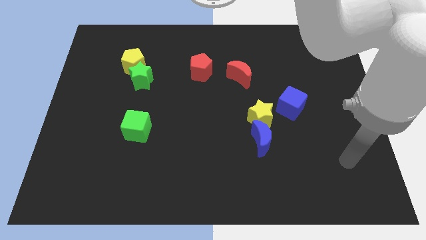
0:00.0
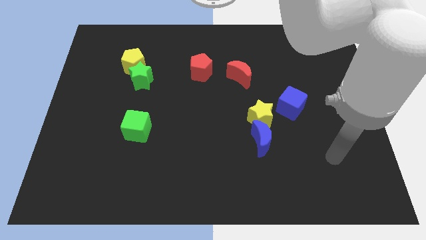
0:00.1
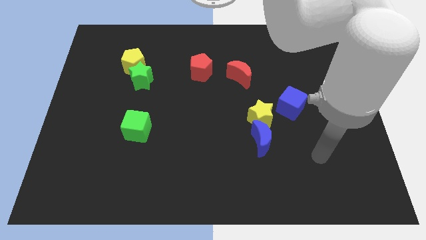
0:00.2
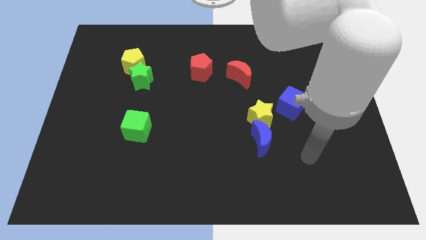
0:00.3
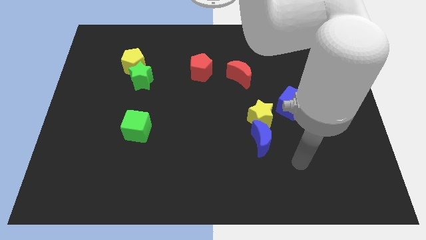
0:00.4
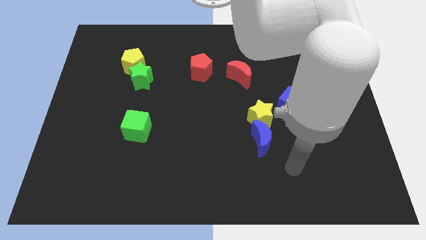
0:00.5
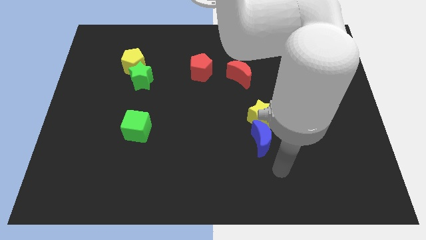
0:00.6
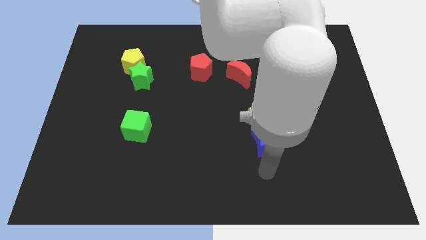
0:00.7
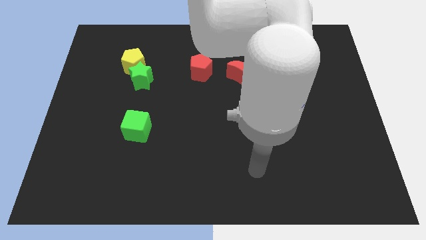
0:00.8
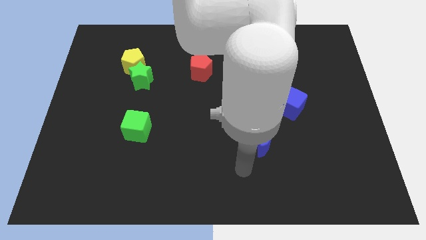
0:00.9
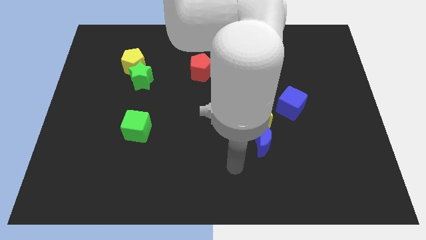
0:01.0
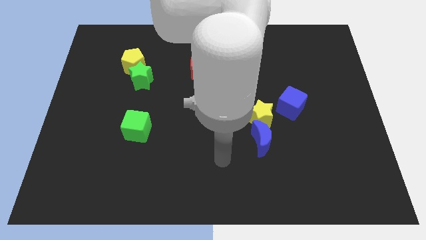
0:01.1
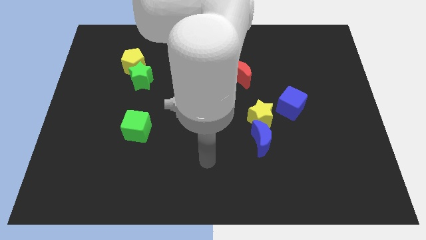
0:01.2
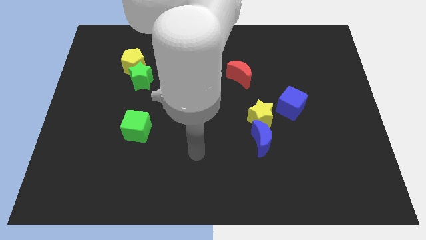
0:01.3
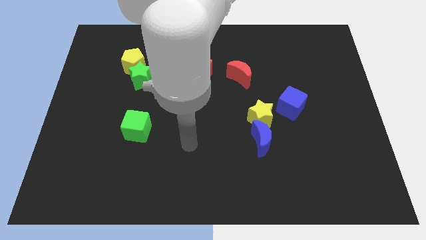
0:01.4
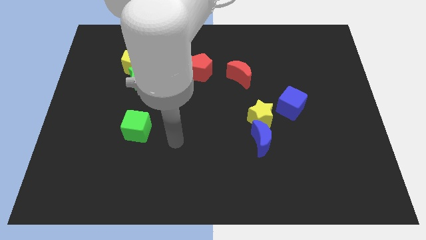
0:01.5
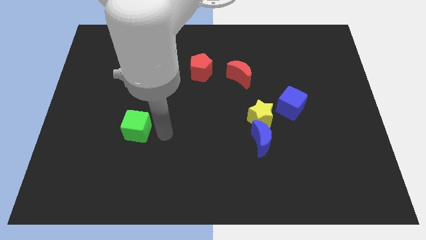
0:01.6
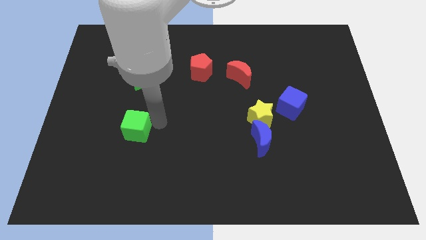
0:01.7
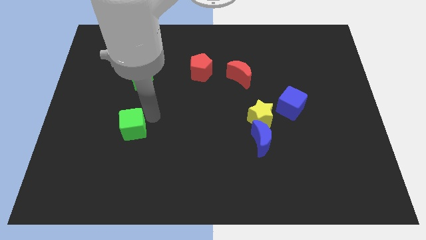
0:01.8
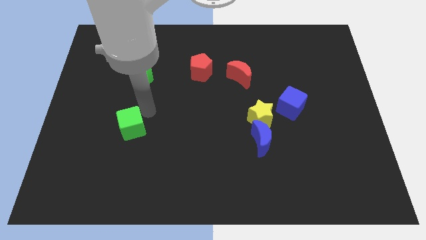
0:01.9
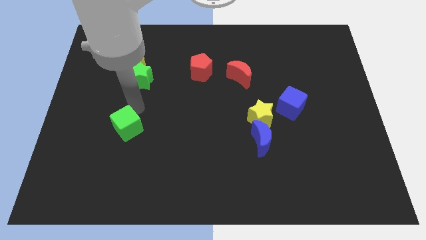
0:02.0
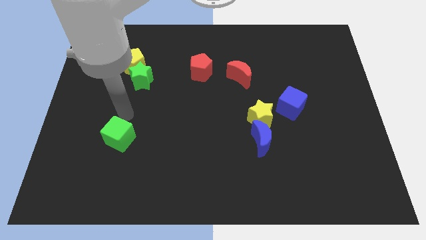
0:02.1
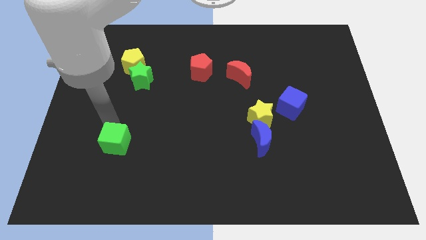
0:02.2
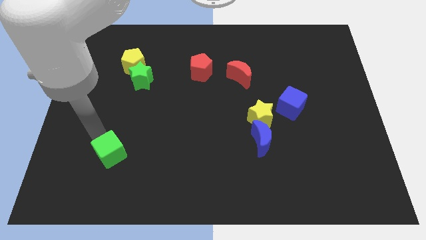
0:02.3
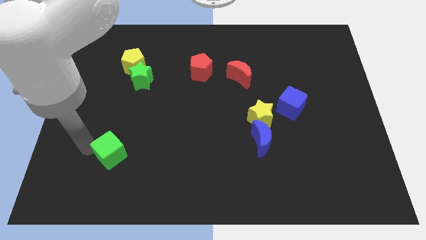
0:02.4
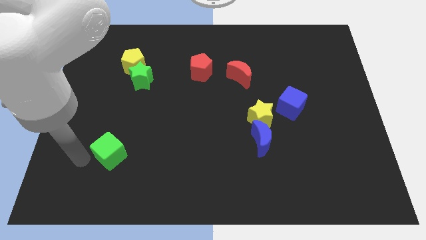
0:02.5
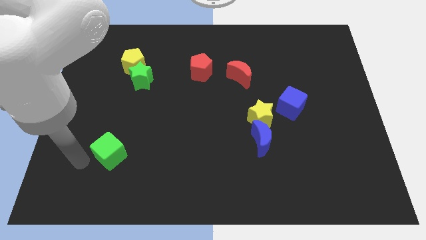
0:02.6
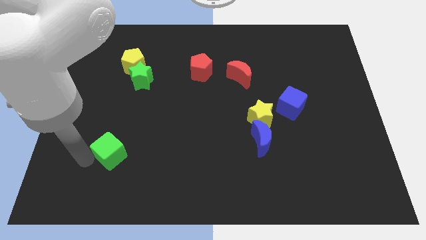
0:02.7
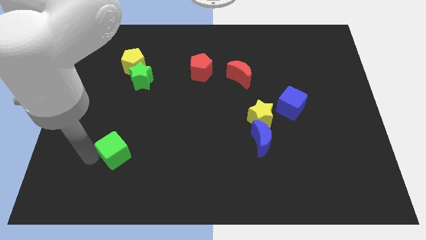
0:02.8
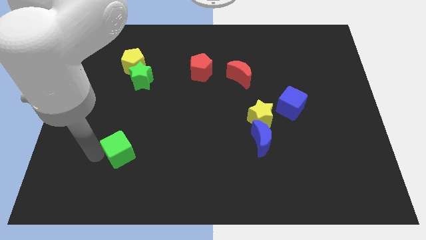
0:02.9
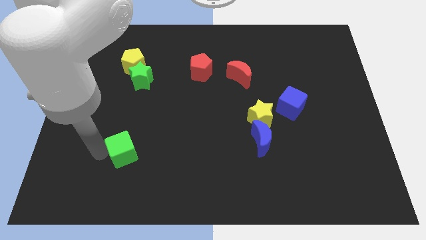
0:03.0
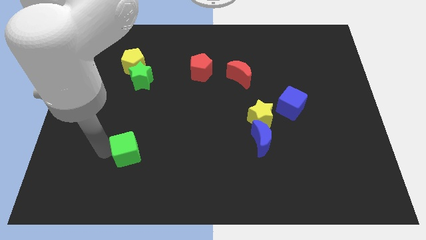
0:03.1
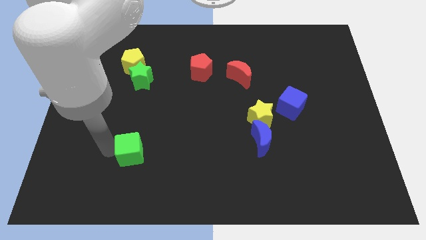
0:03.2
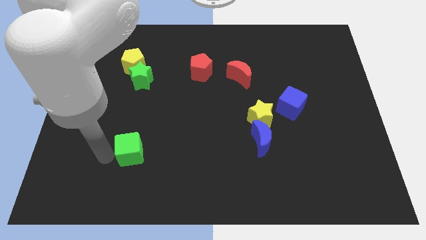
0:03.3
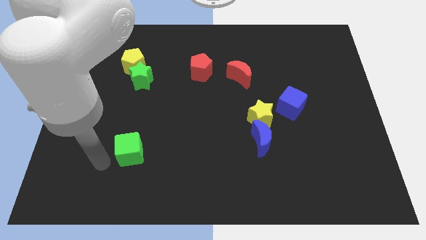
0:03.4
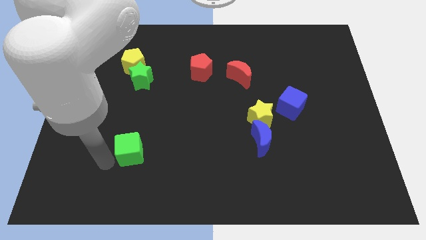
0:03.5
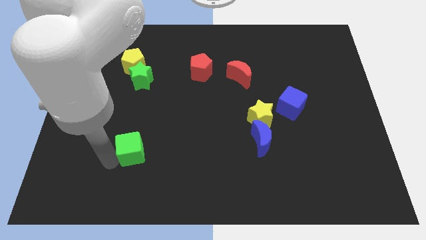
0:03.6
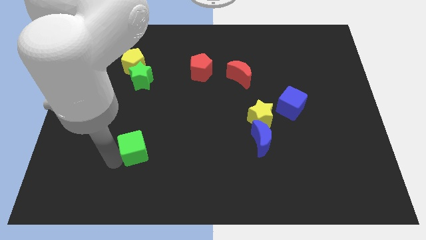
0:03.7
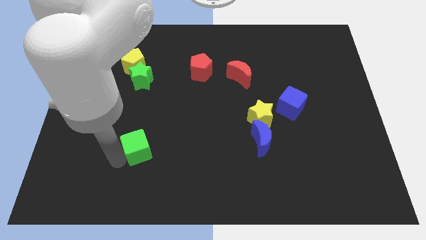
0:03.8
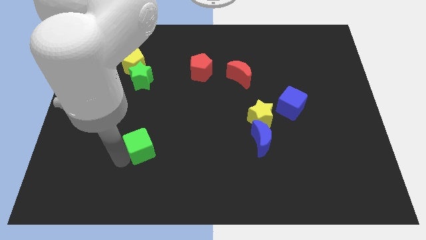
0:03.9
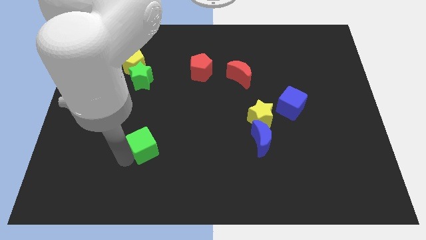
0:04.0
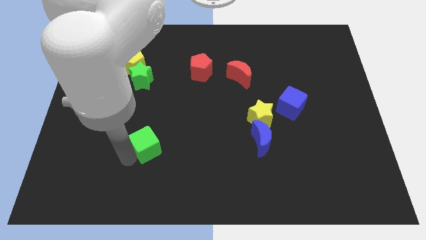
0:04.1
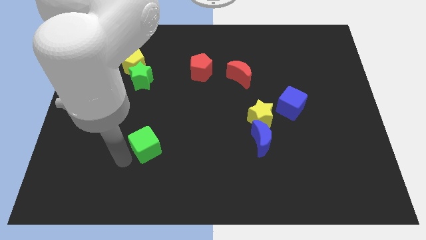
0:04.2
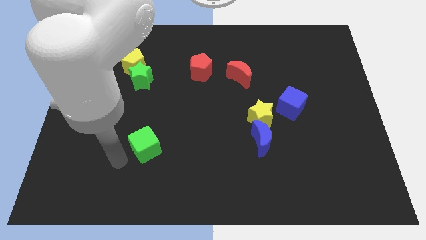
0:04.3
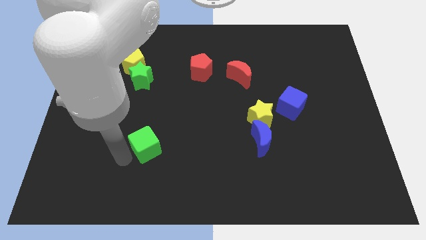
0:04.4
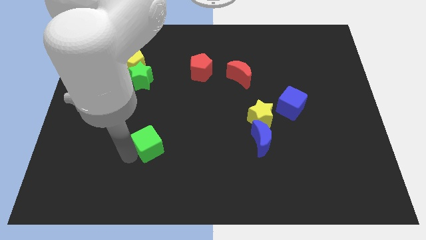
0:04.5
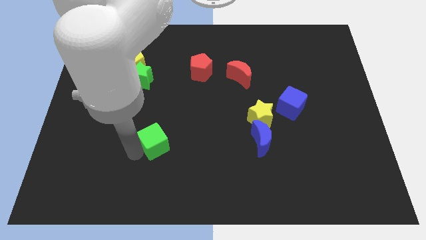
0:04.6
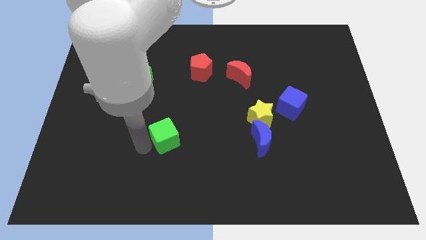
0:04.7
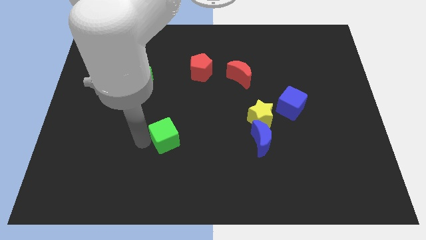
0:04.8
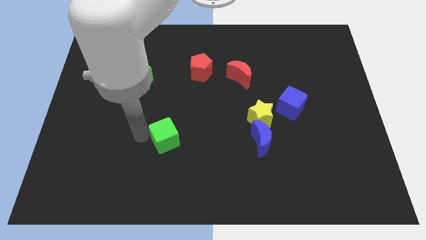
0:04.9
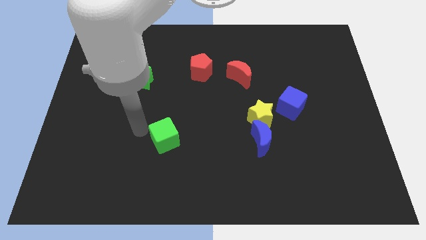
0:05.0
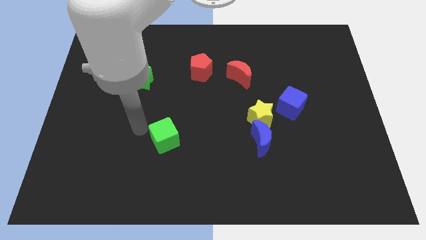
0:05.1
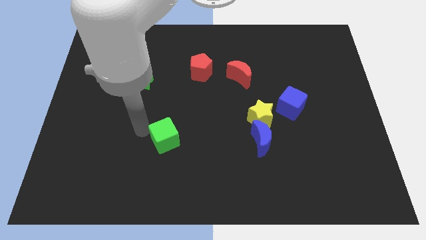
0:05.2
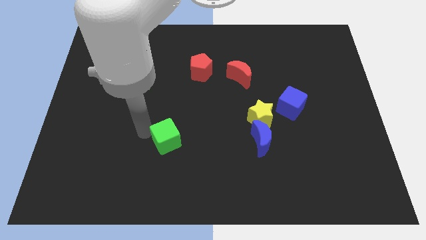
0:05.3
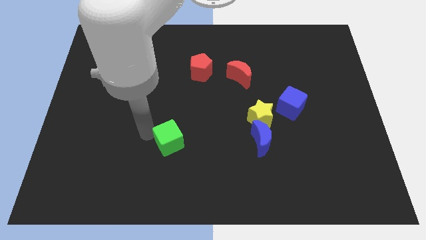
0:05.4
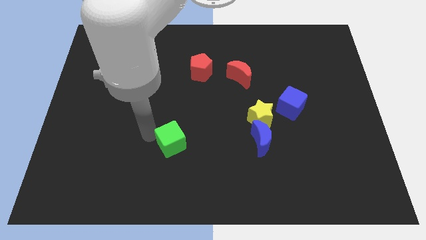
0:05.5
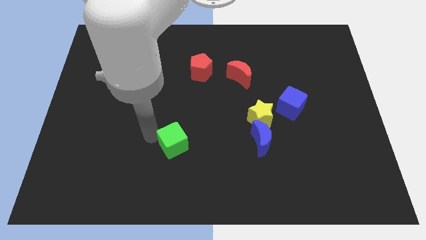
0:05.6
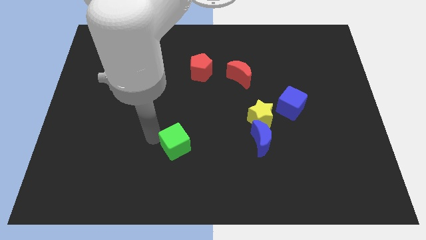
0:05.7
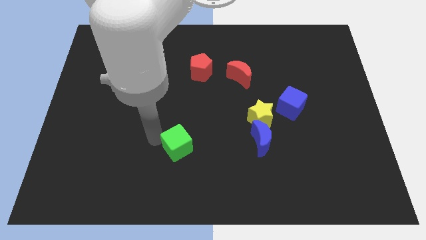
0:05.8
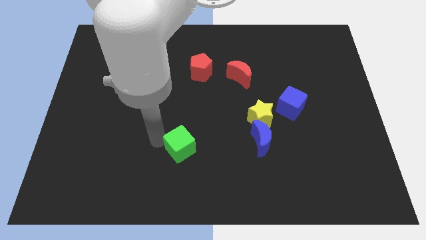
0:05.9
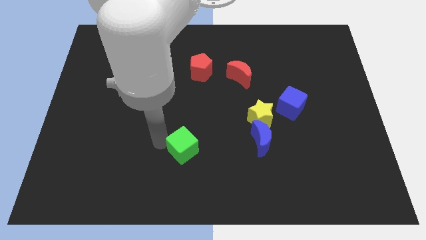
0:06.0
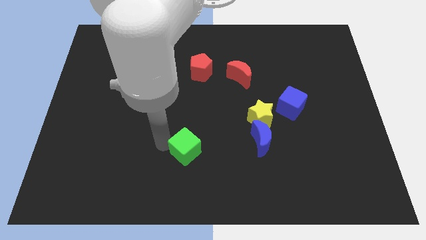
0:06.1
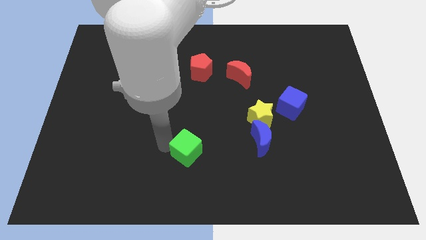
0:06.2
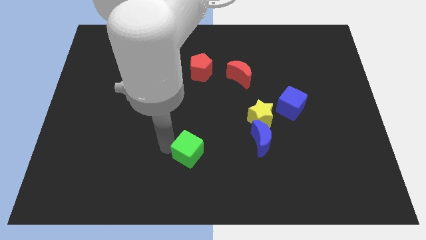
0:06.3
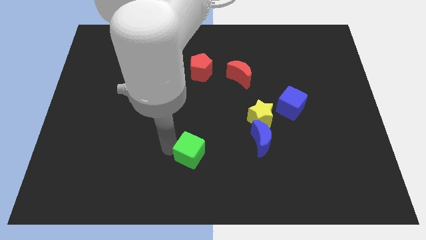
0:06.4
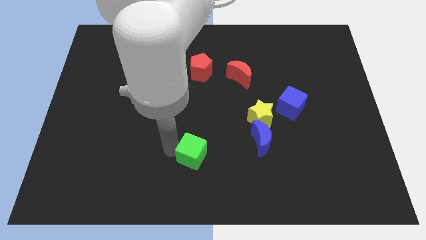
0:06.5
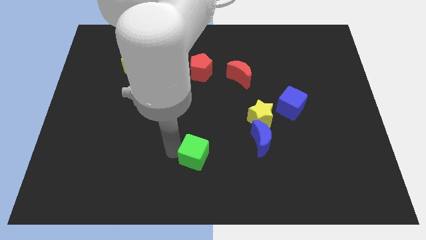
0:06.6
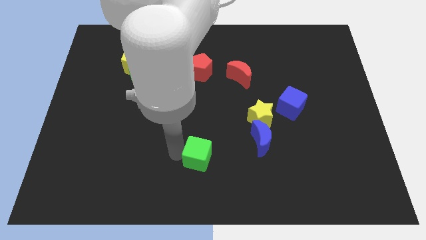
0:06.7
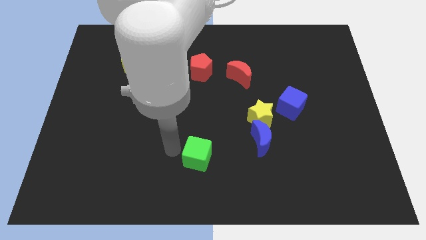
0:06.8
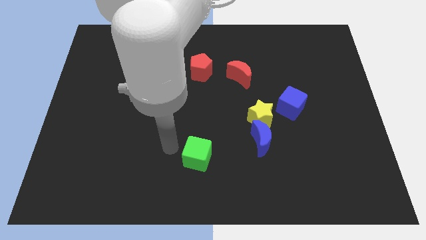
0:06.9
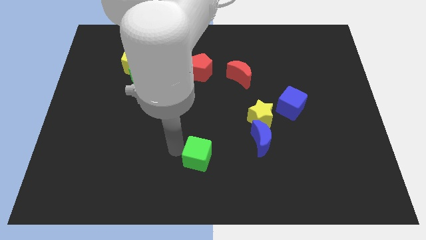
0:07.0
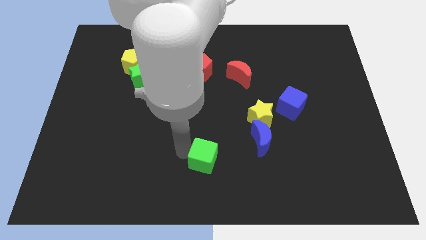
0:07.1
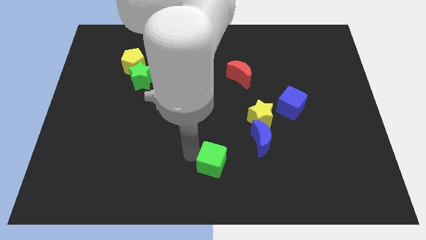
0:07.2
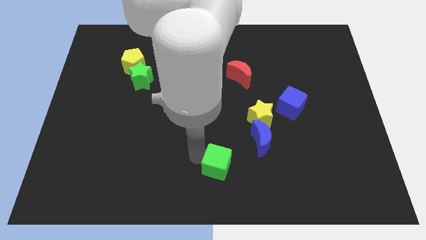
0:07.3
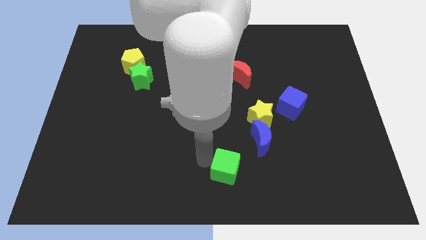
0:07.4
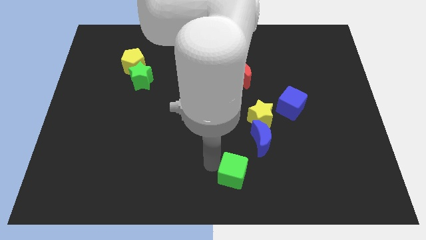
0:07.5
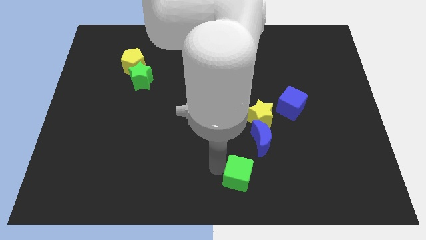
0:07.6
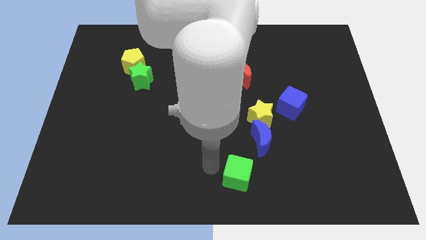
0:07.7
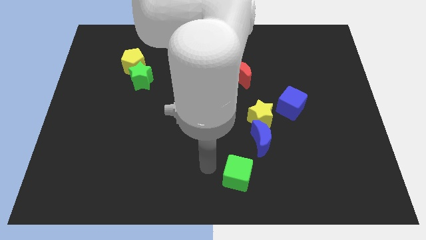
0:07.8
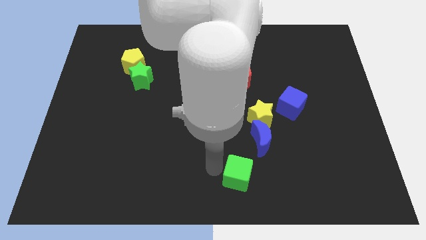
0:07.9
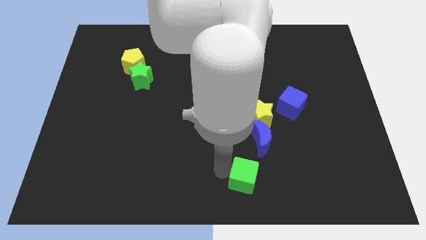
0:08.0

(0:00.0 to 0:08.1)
push the green cube to the bottom of the blue moon
